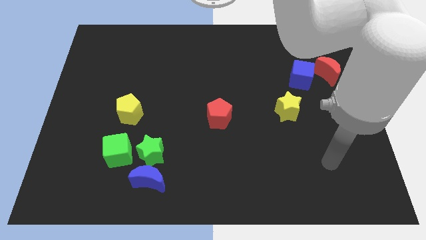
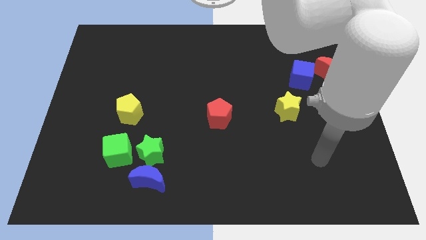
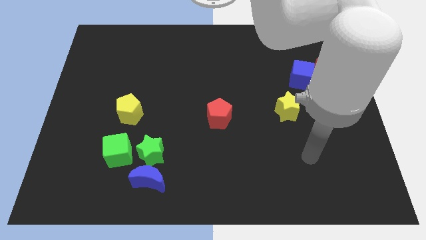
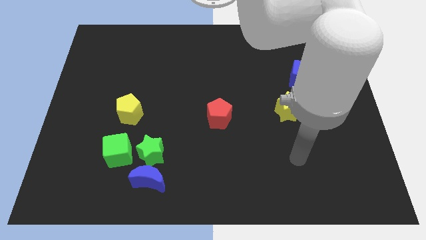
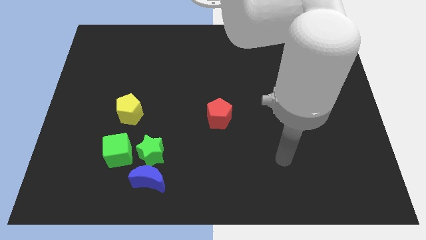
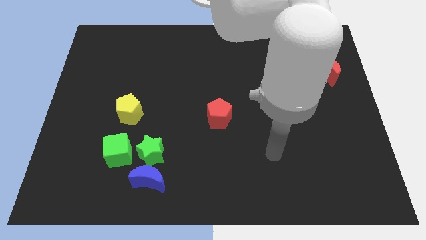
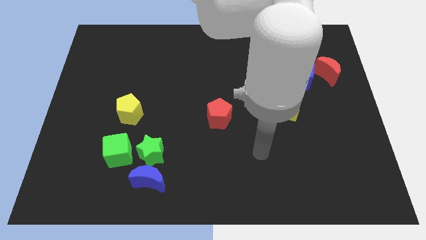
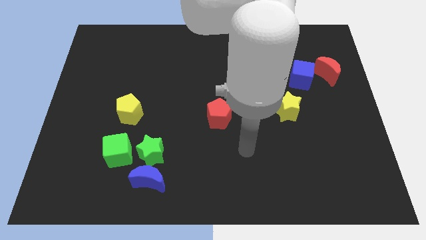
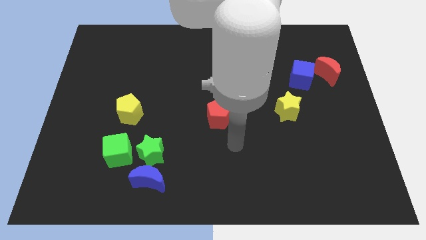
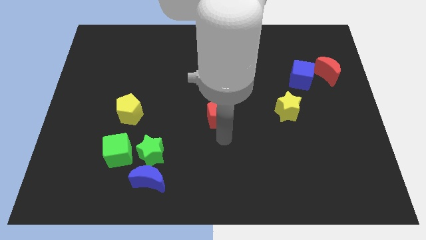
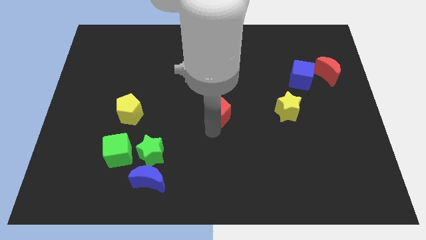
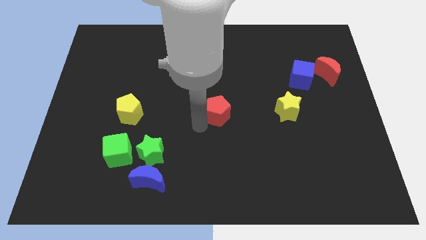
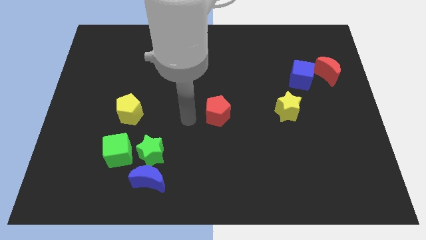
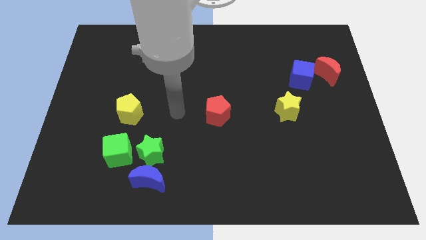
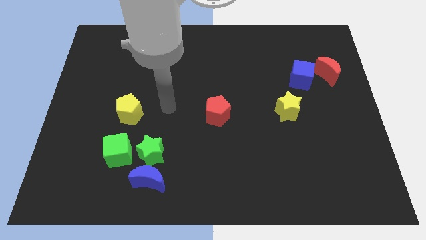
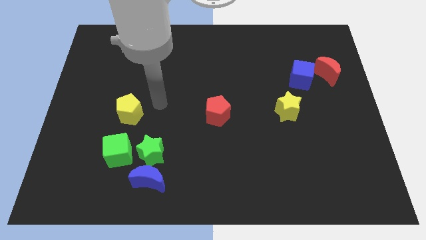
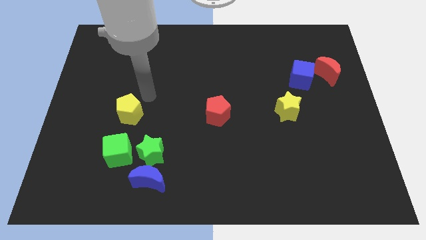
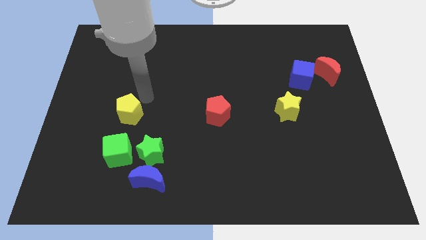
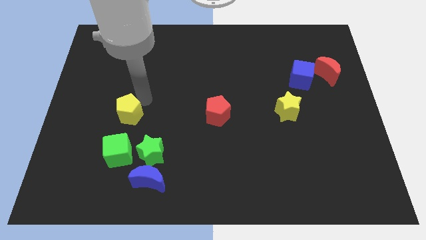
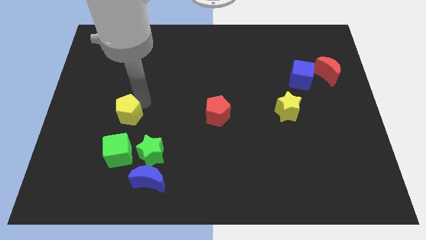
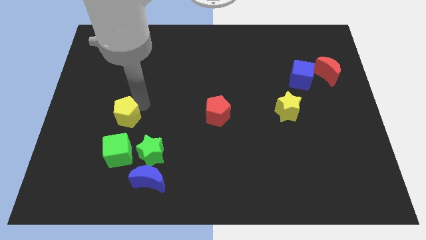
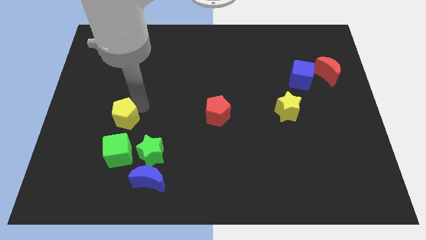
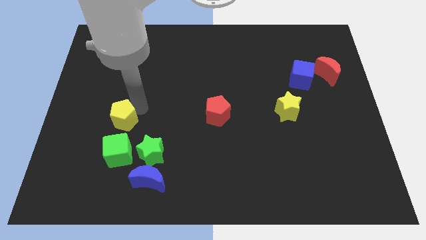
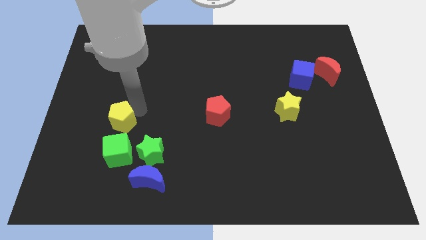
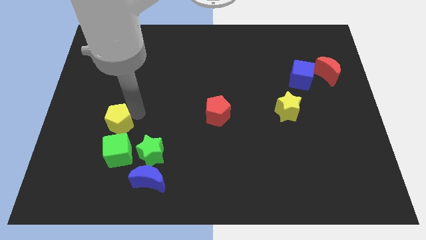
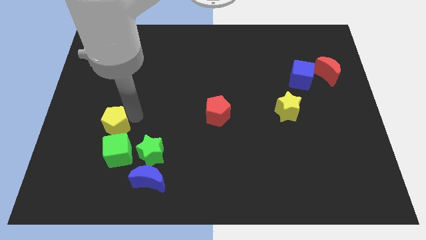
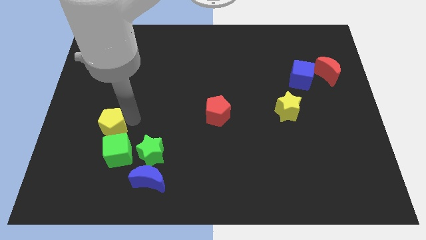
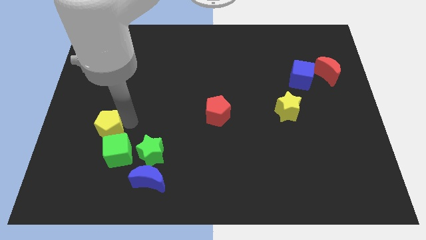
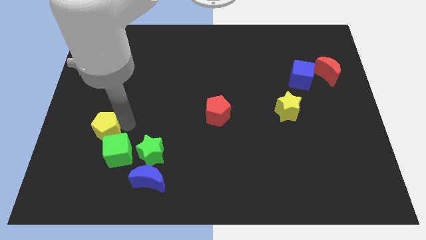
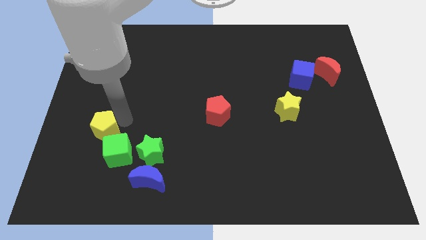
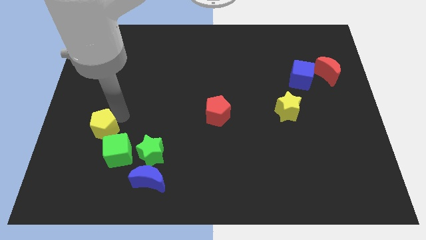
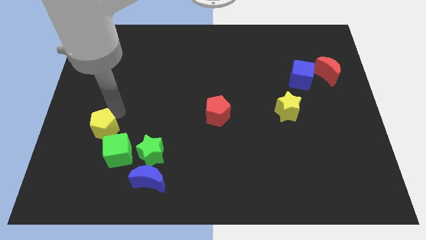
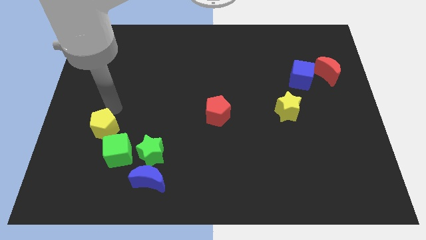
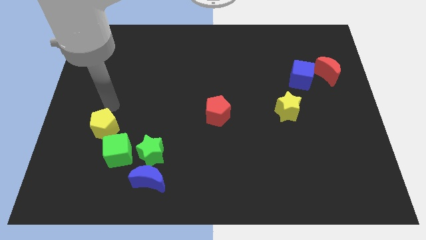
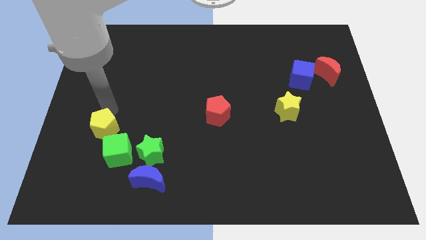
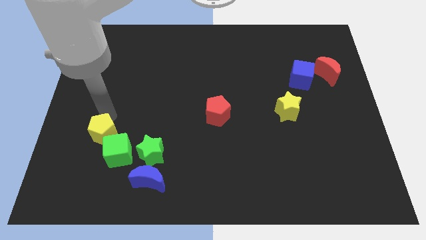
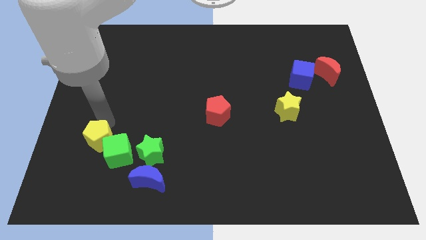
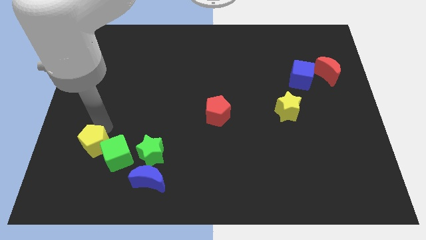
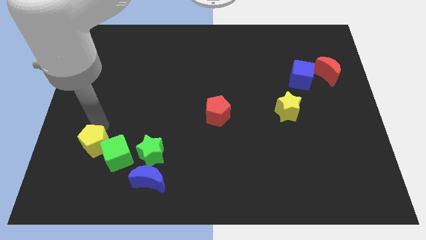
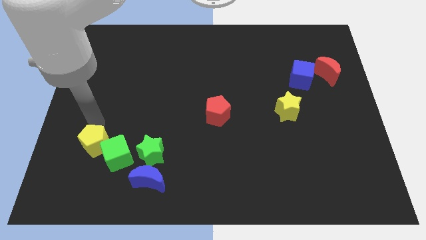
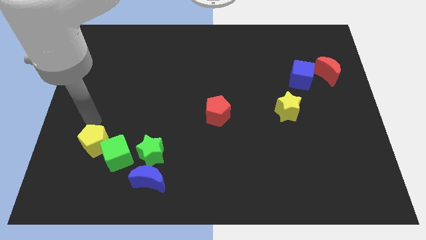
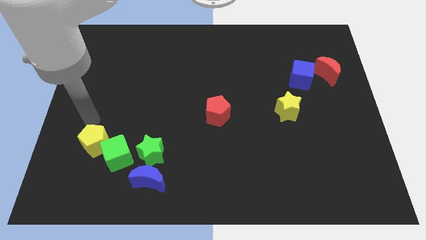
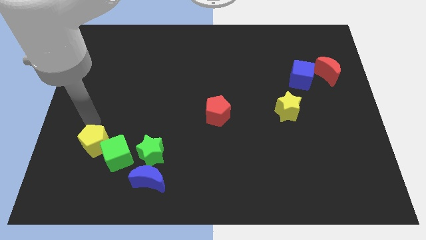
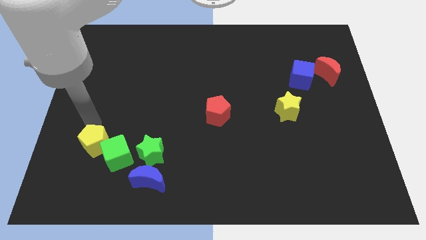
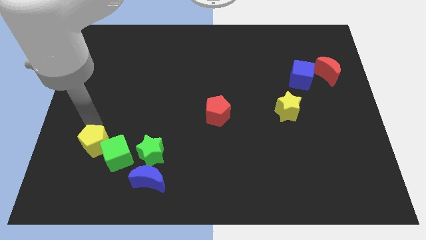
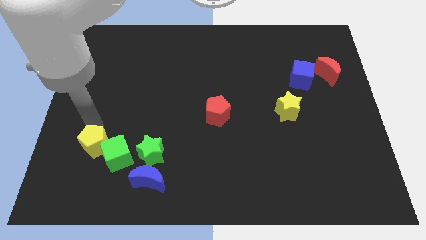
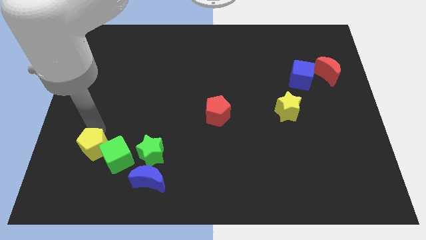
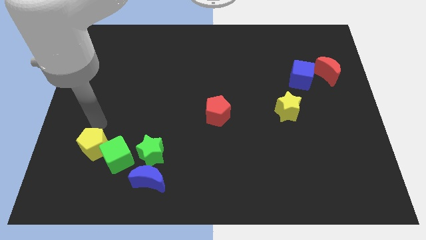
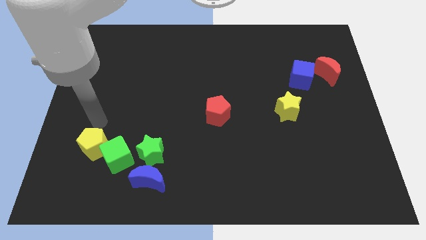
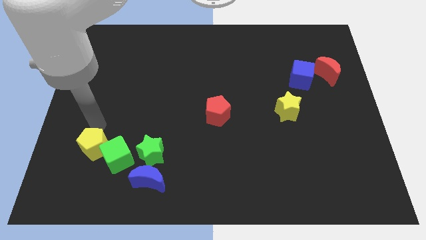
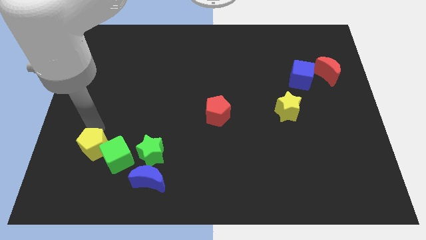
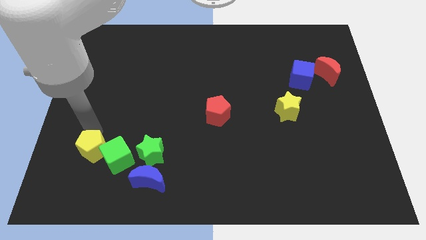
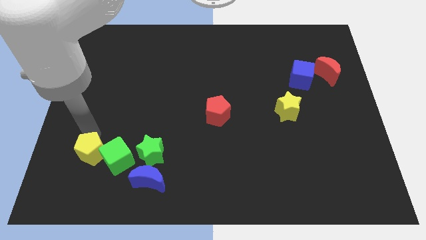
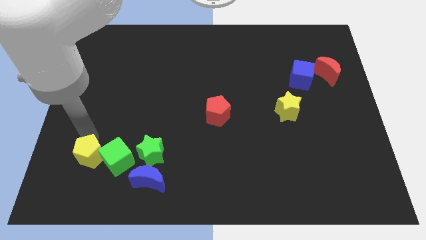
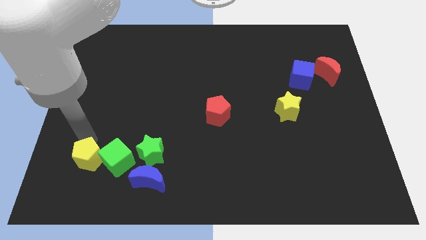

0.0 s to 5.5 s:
move the yellow pentagon diagonally down and to the left of the green cube

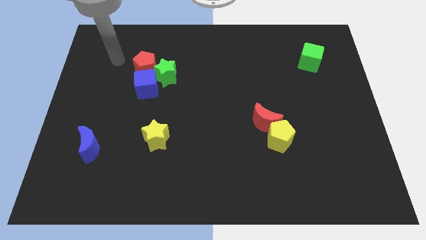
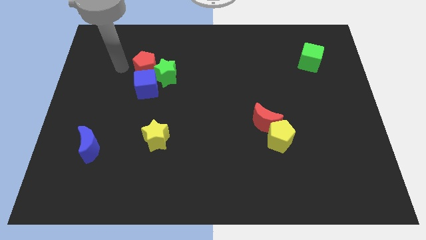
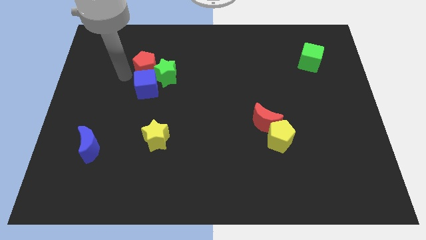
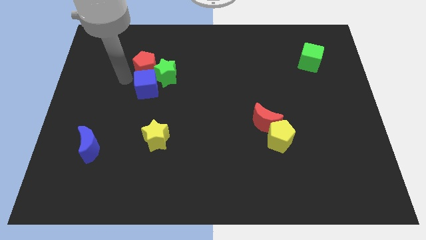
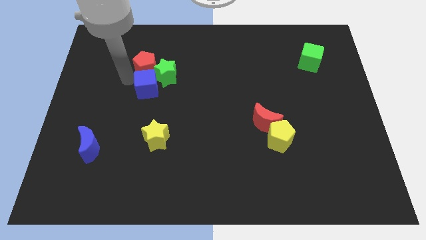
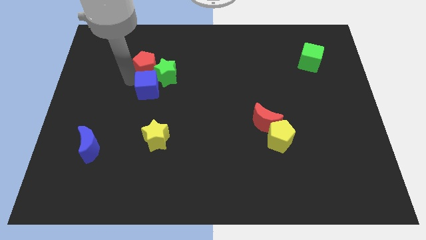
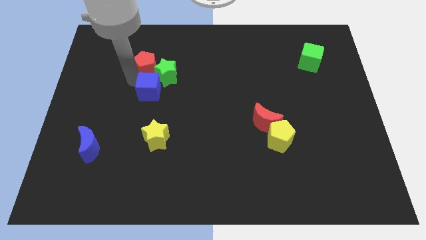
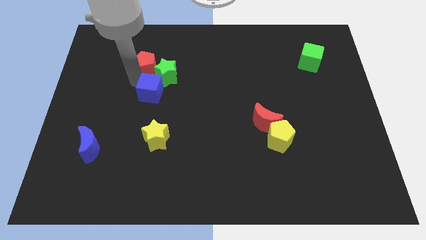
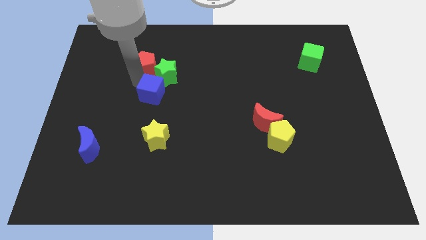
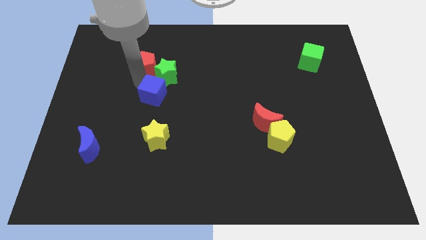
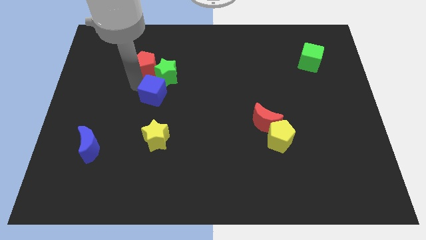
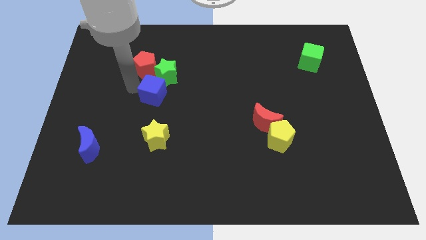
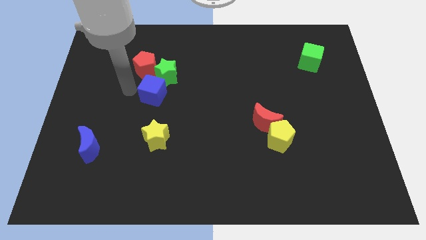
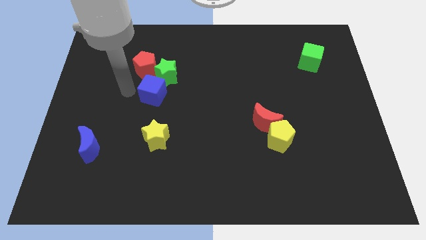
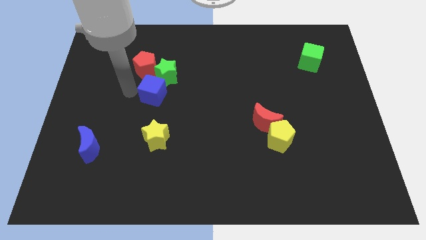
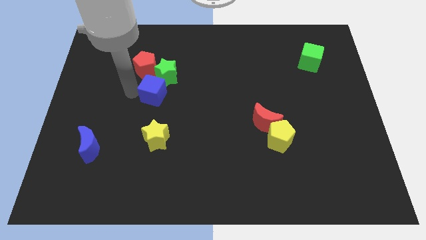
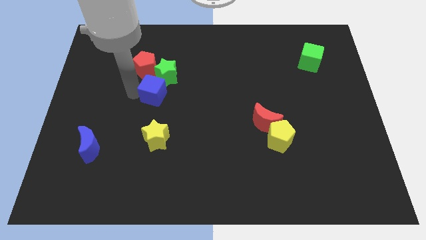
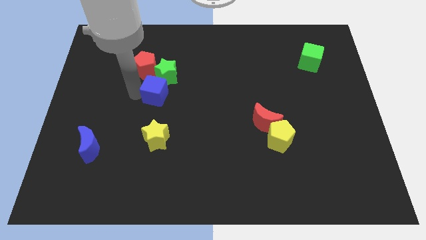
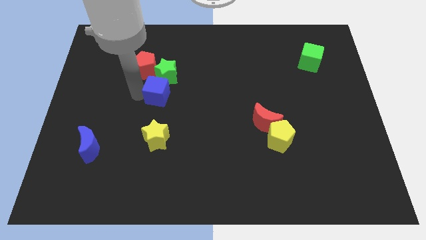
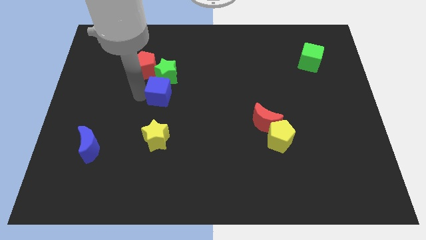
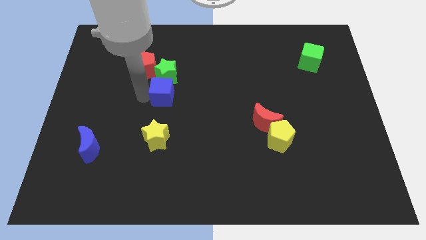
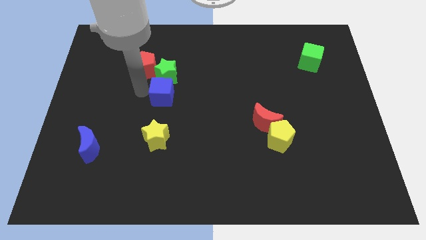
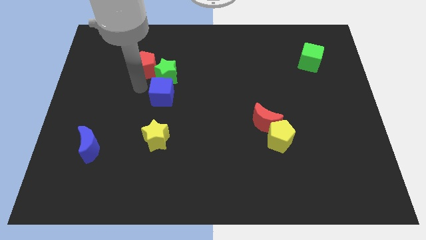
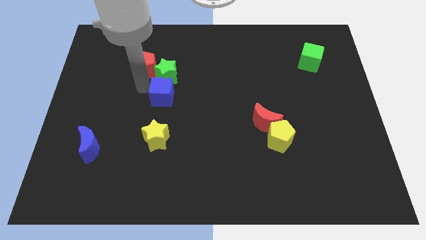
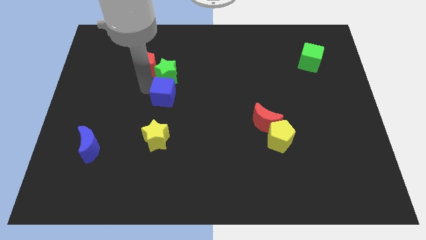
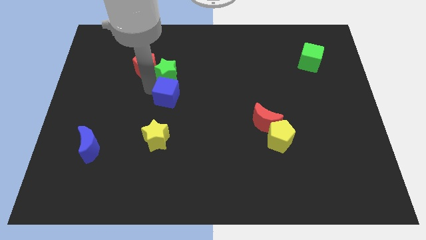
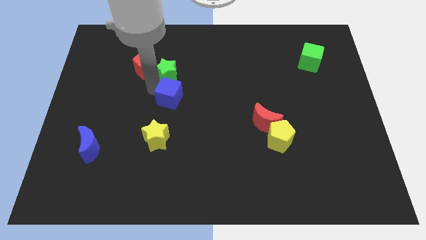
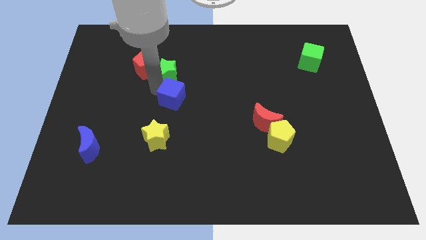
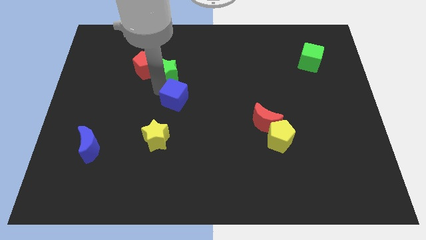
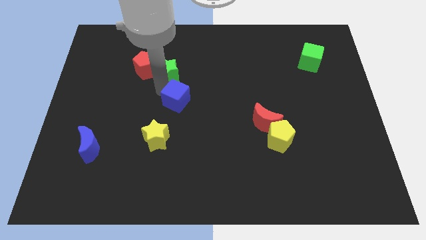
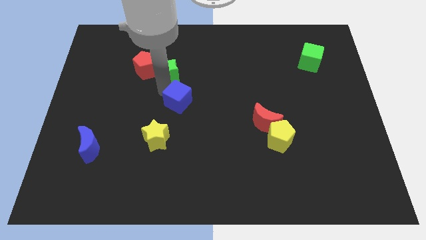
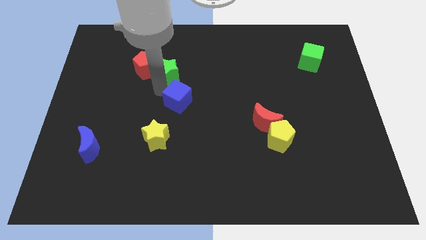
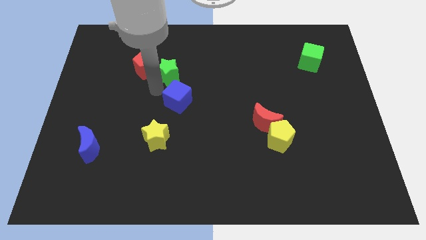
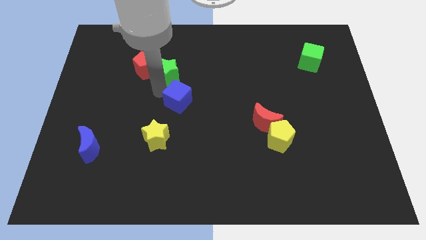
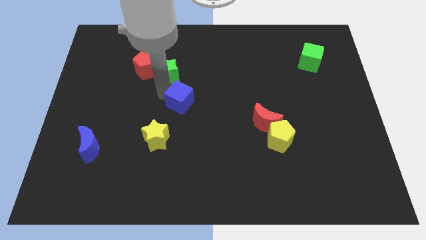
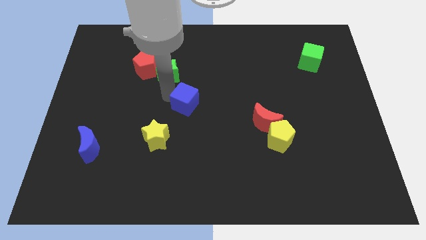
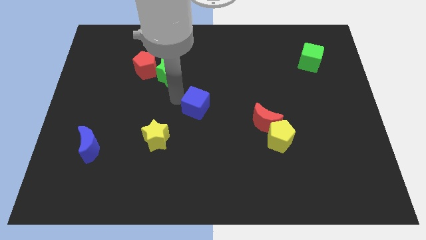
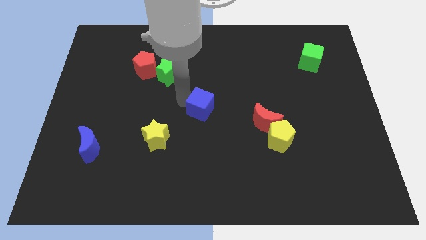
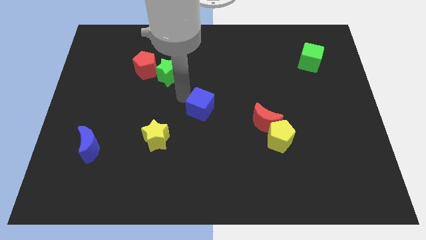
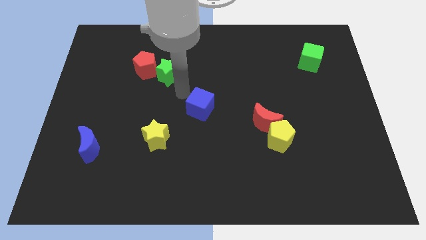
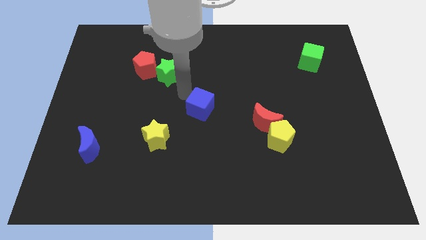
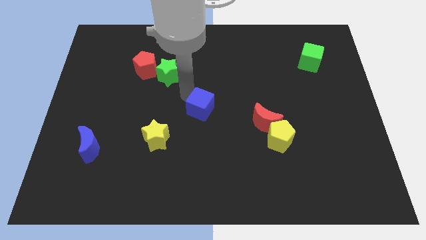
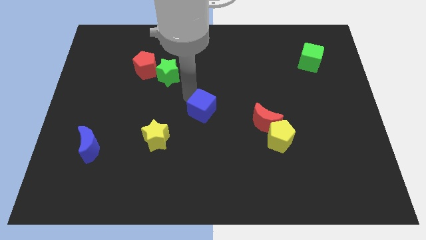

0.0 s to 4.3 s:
slide the blue cube to the left of the red moon
